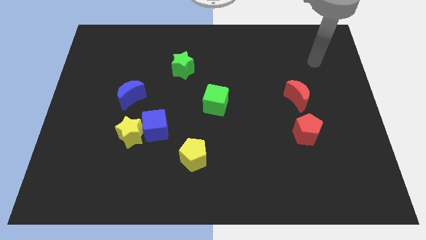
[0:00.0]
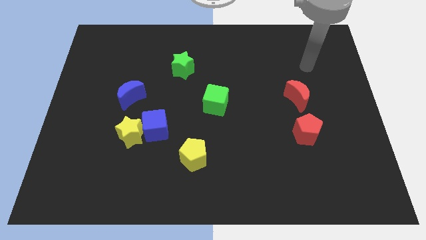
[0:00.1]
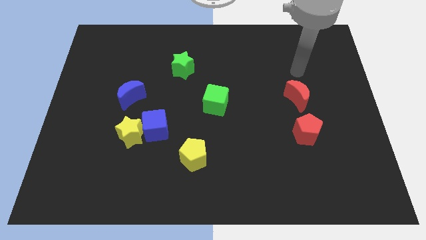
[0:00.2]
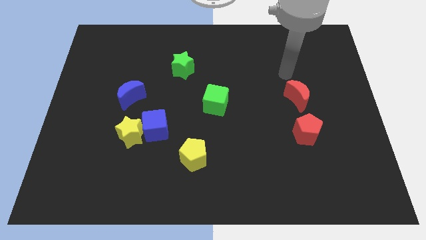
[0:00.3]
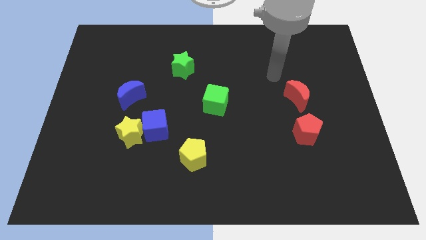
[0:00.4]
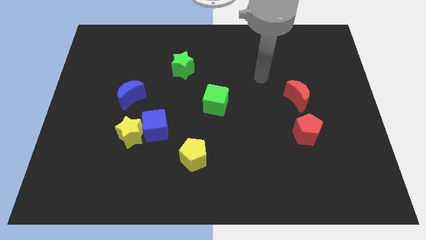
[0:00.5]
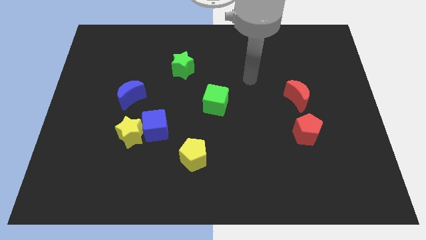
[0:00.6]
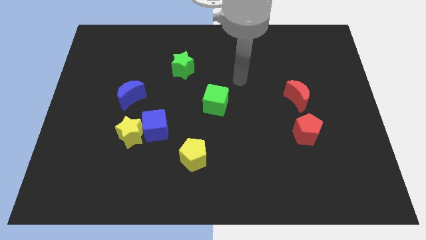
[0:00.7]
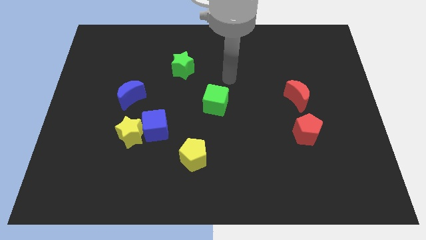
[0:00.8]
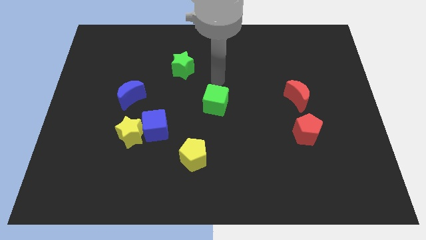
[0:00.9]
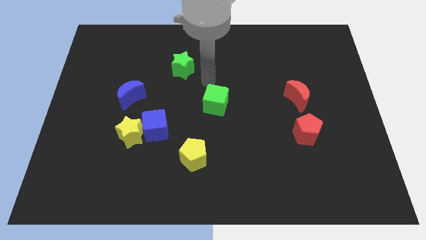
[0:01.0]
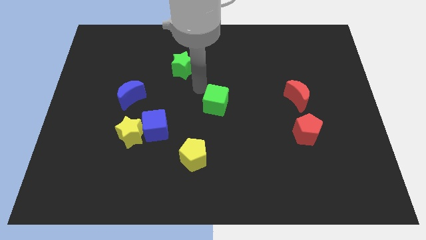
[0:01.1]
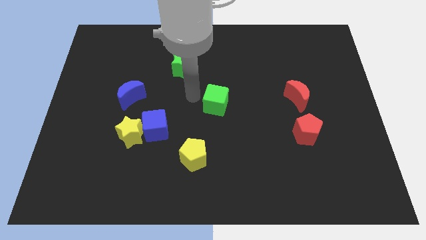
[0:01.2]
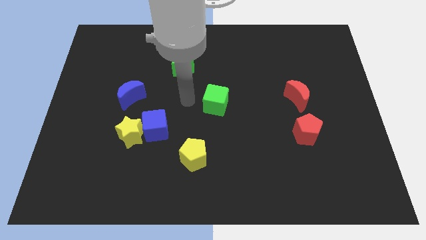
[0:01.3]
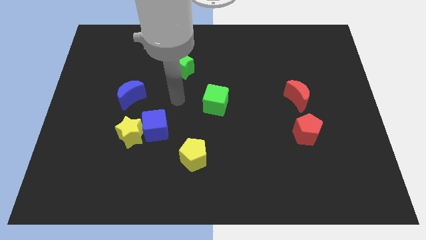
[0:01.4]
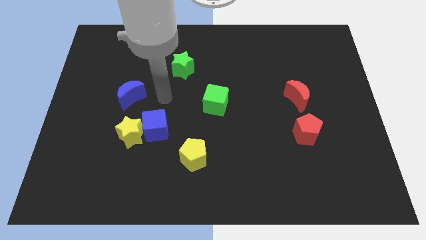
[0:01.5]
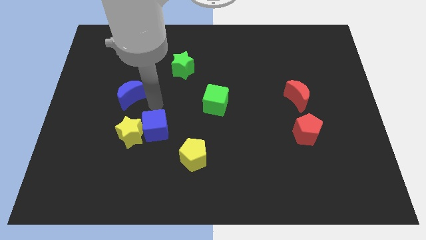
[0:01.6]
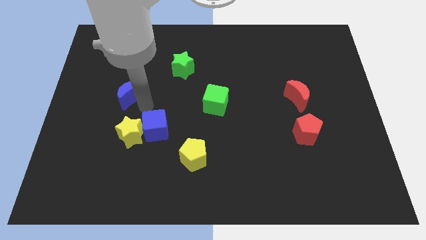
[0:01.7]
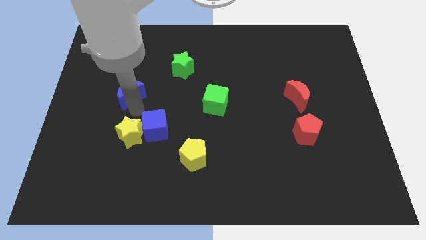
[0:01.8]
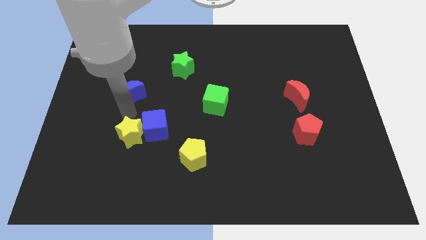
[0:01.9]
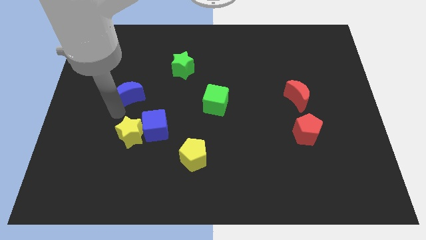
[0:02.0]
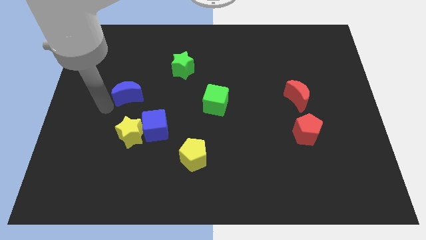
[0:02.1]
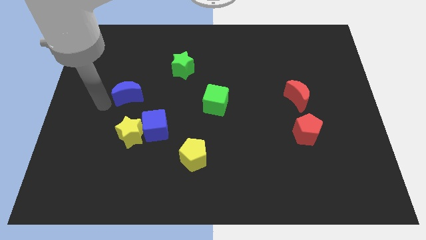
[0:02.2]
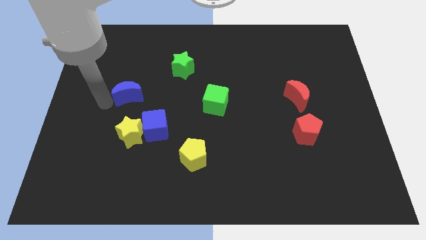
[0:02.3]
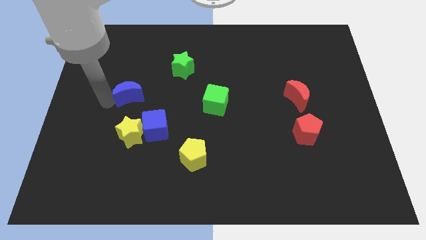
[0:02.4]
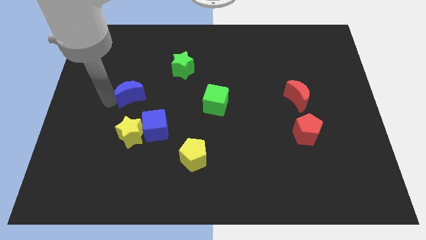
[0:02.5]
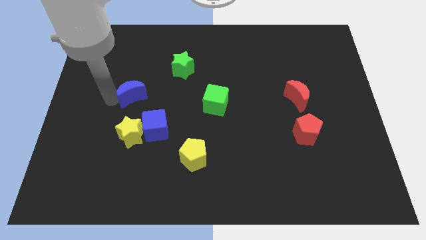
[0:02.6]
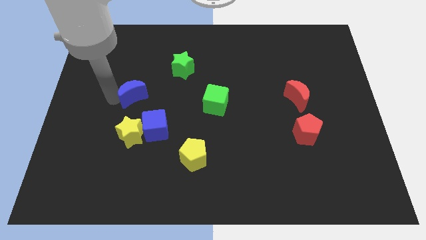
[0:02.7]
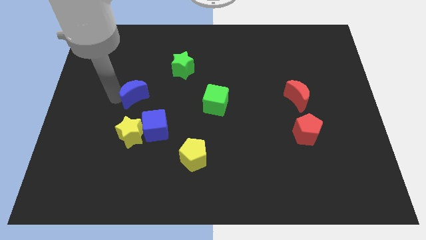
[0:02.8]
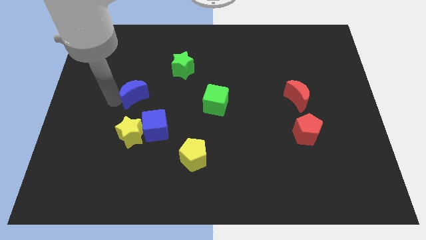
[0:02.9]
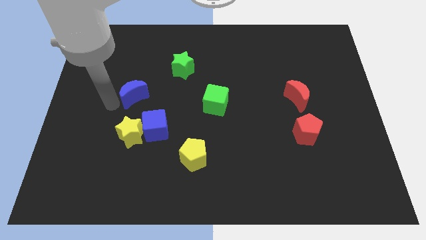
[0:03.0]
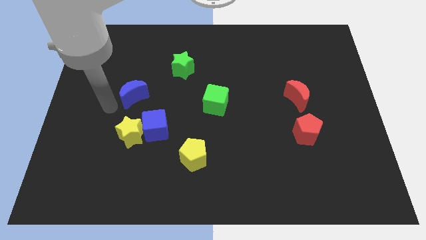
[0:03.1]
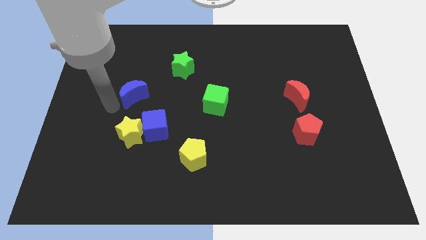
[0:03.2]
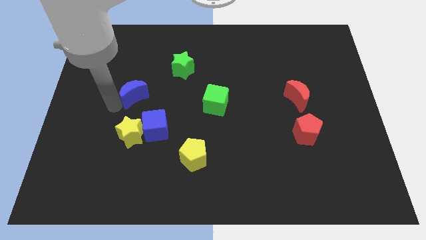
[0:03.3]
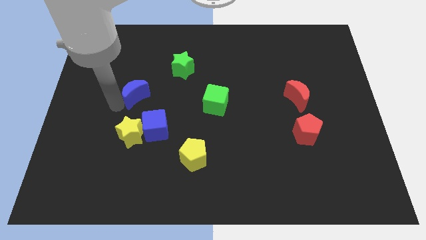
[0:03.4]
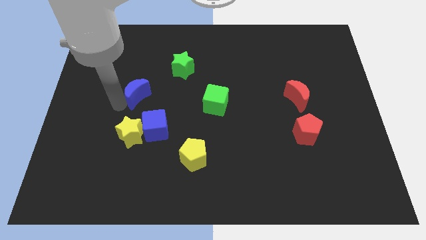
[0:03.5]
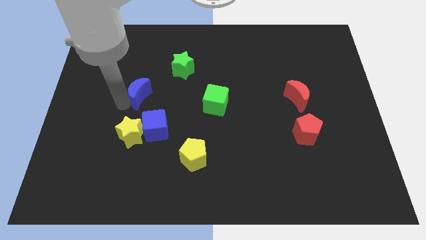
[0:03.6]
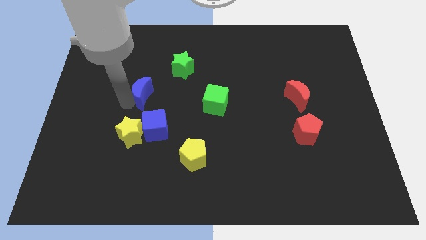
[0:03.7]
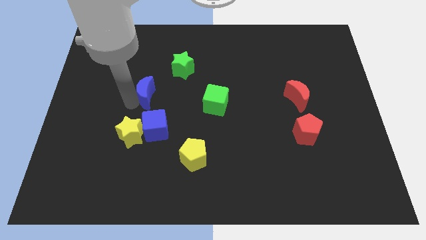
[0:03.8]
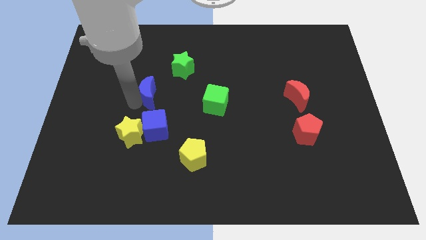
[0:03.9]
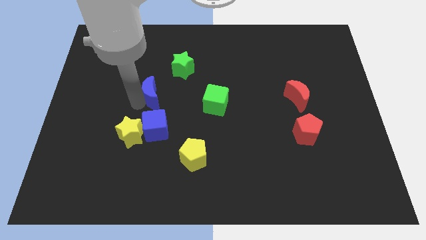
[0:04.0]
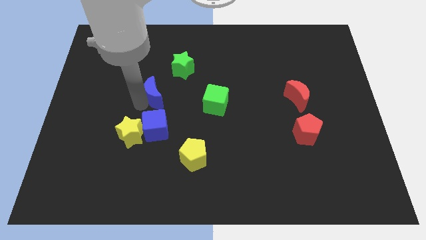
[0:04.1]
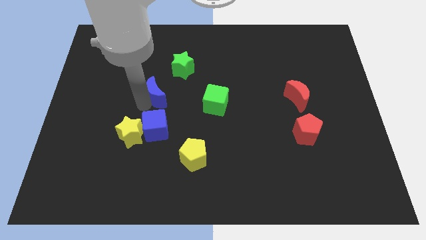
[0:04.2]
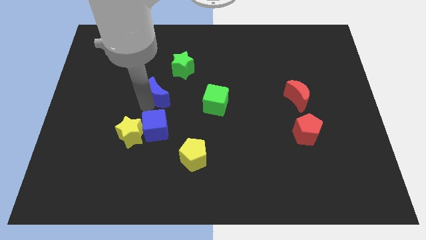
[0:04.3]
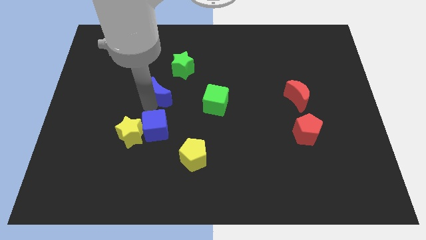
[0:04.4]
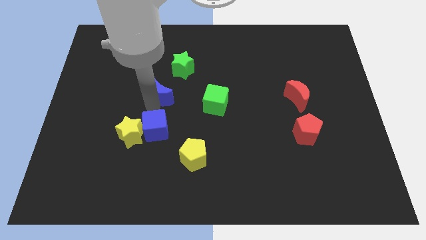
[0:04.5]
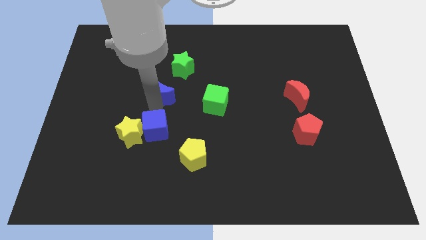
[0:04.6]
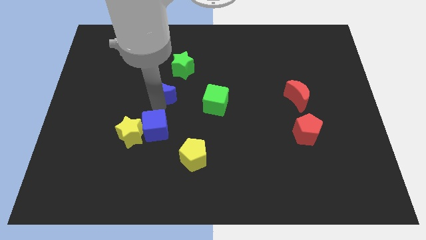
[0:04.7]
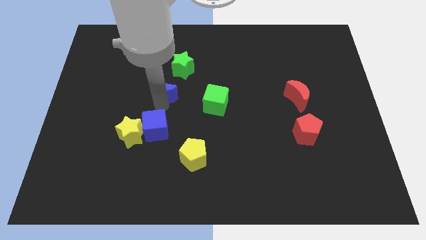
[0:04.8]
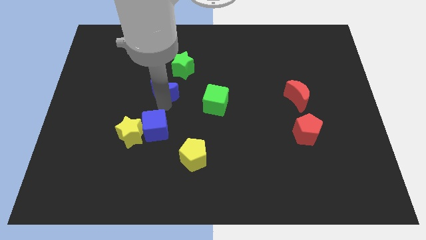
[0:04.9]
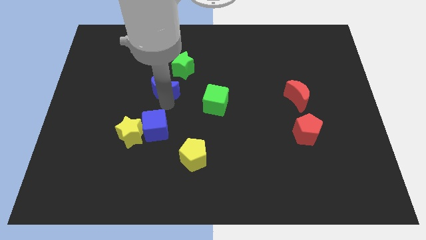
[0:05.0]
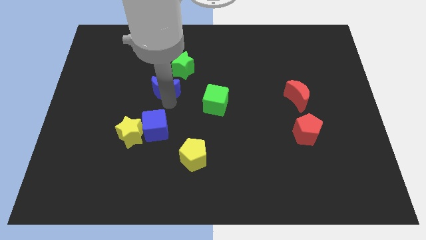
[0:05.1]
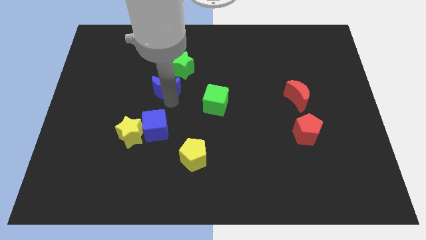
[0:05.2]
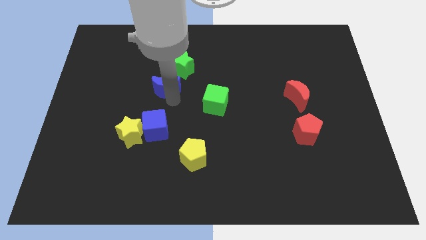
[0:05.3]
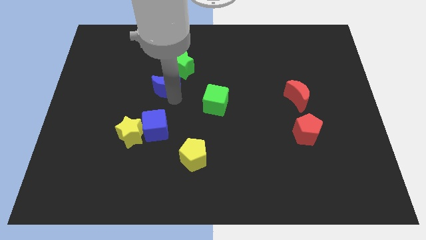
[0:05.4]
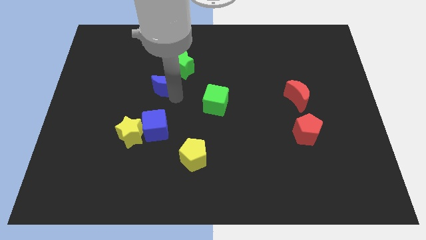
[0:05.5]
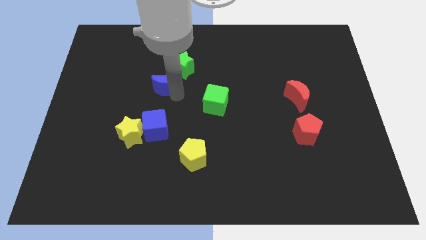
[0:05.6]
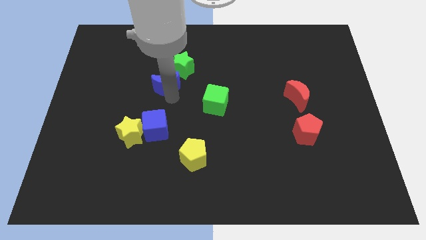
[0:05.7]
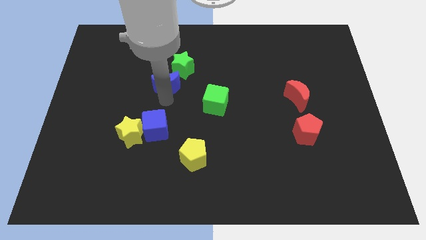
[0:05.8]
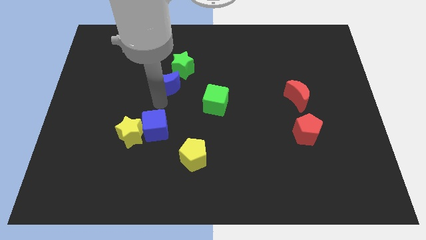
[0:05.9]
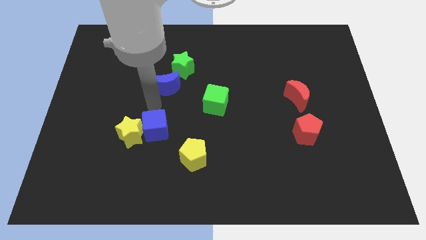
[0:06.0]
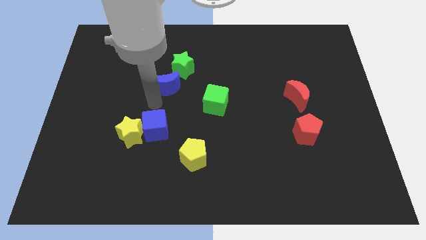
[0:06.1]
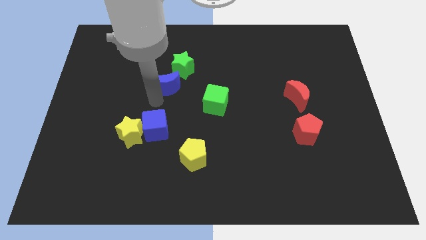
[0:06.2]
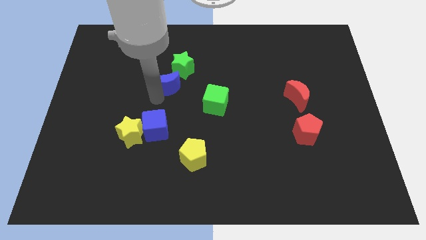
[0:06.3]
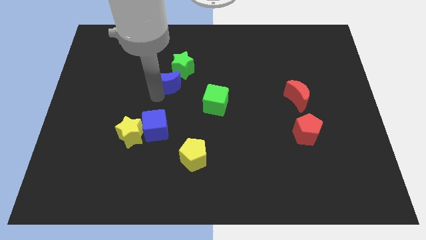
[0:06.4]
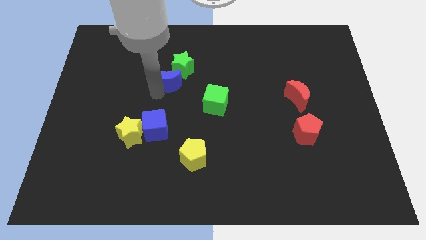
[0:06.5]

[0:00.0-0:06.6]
move the blue moon close to the green star

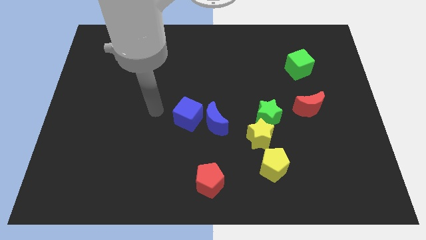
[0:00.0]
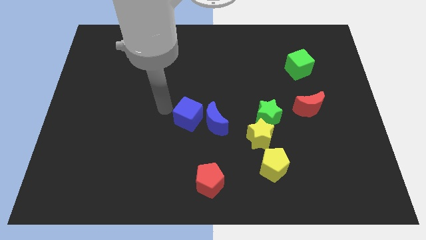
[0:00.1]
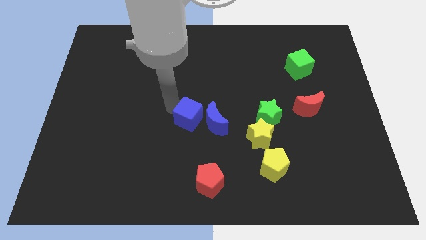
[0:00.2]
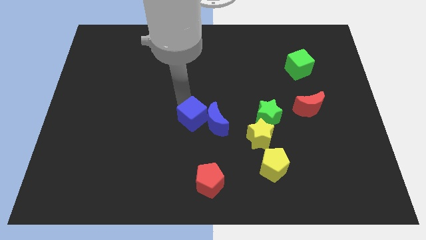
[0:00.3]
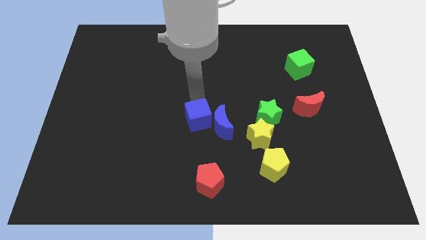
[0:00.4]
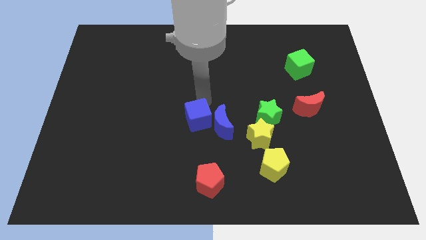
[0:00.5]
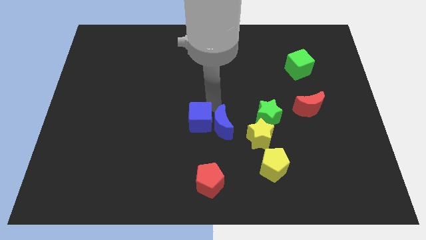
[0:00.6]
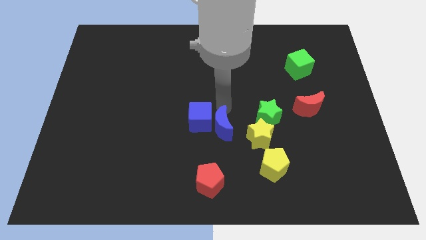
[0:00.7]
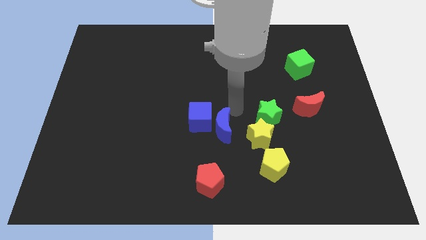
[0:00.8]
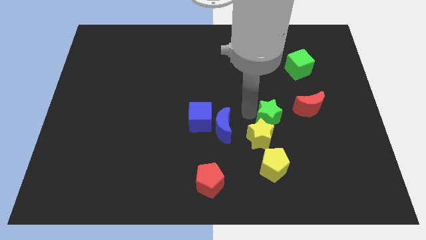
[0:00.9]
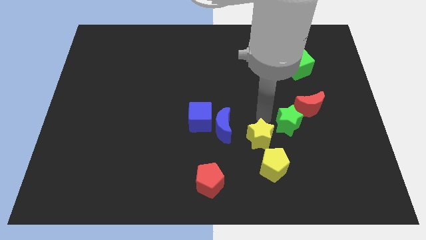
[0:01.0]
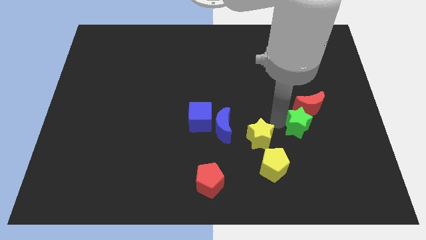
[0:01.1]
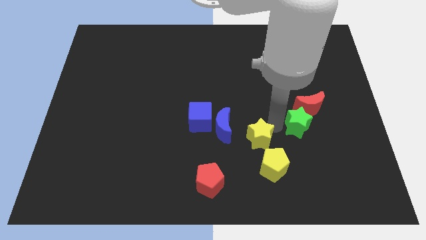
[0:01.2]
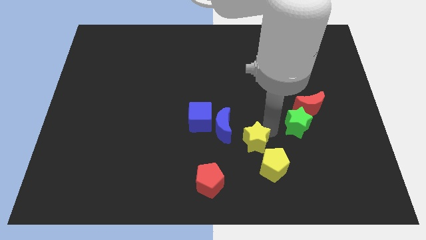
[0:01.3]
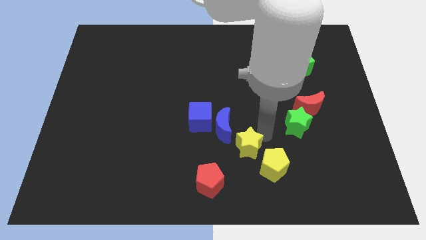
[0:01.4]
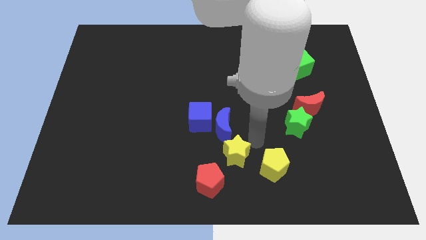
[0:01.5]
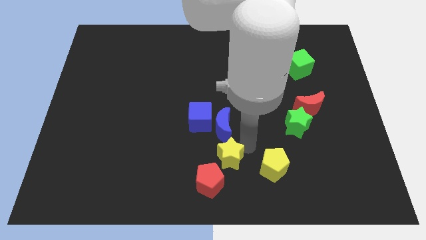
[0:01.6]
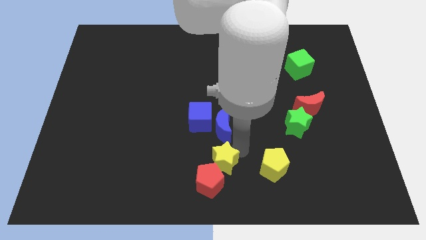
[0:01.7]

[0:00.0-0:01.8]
push the yellow star to the red pentagon
